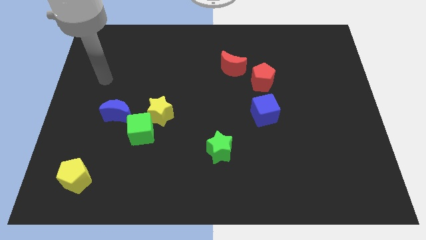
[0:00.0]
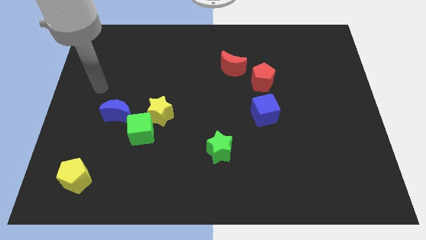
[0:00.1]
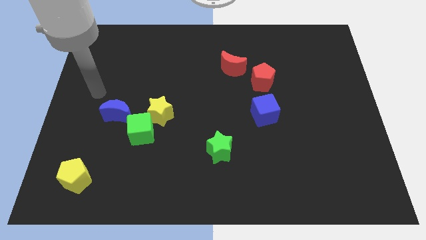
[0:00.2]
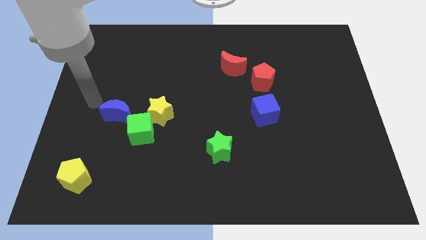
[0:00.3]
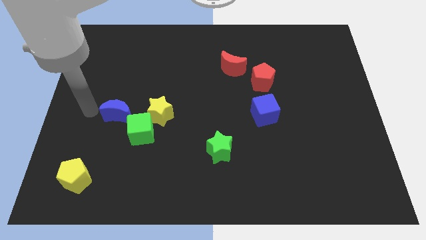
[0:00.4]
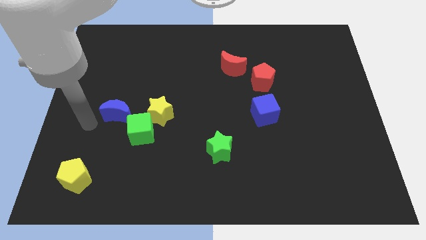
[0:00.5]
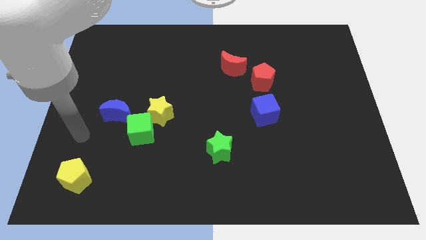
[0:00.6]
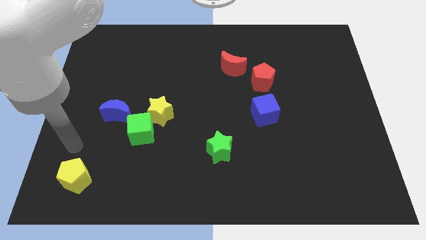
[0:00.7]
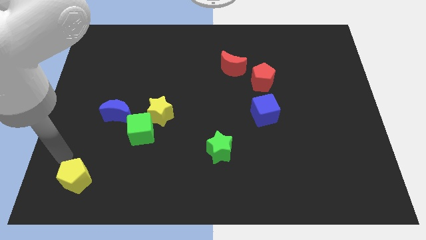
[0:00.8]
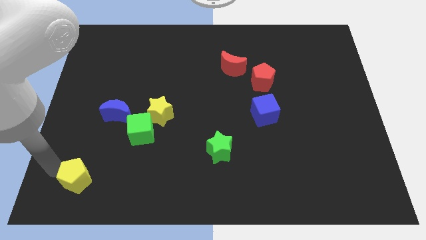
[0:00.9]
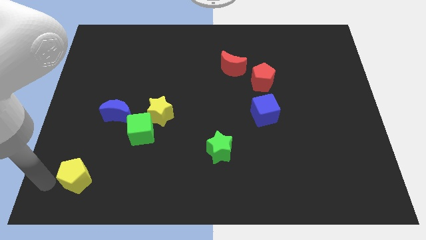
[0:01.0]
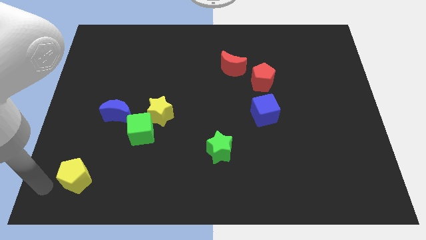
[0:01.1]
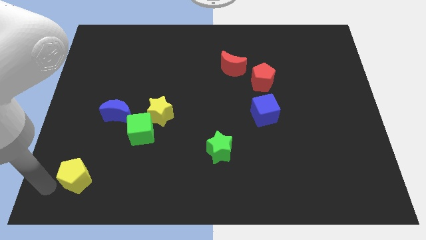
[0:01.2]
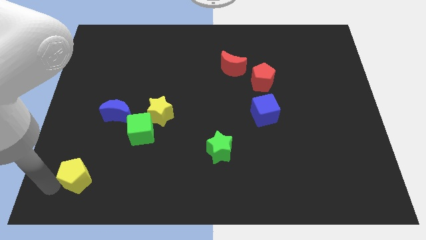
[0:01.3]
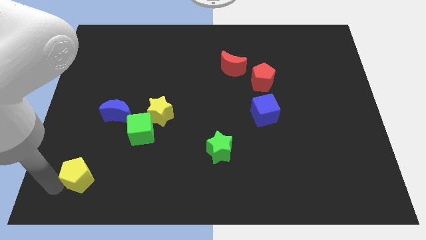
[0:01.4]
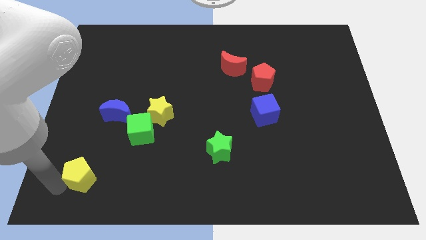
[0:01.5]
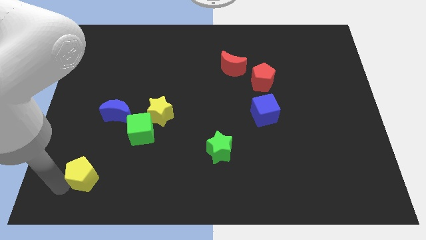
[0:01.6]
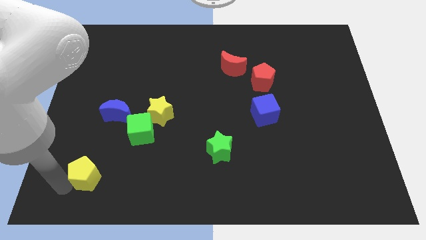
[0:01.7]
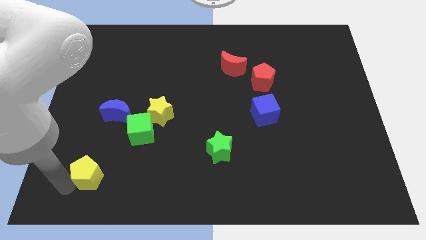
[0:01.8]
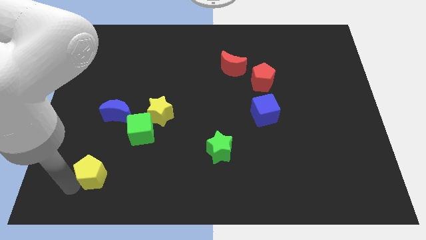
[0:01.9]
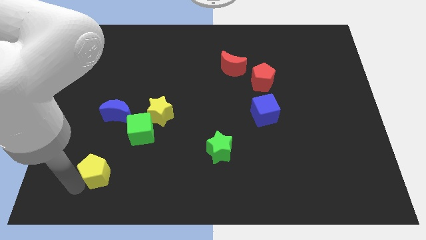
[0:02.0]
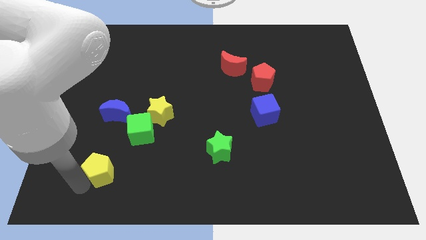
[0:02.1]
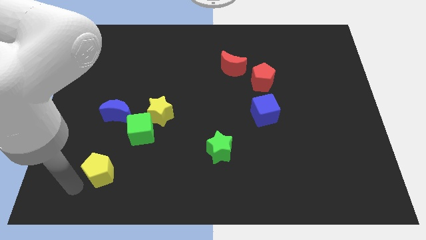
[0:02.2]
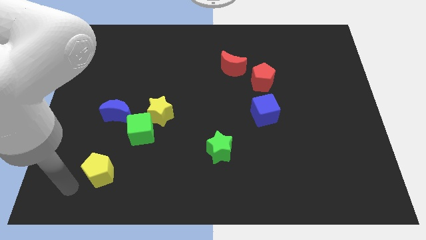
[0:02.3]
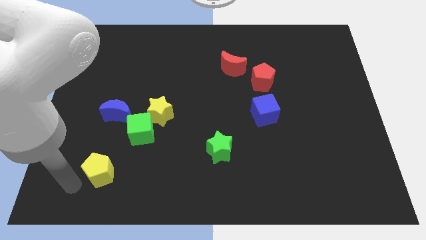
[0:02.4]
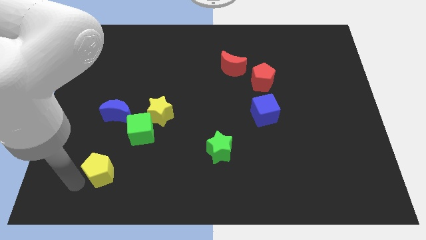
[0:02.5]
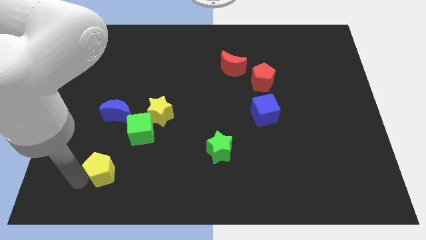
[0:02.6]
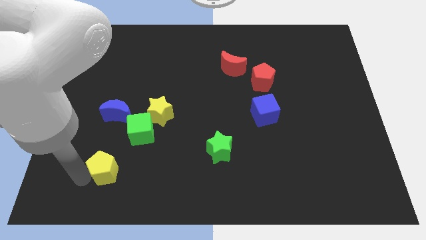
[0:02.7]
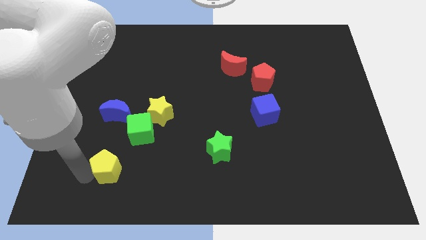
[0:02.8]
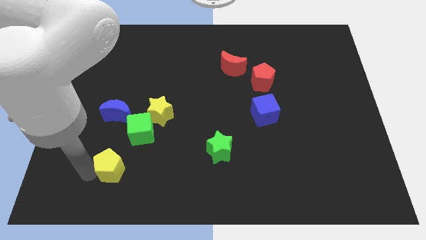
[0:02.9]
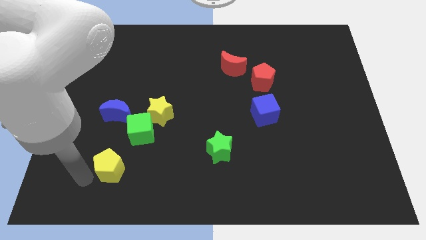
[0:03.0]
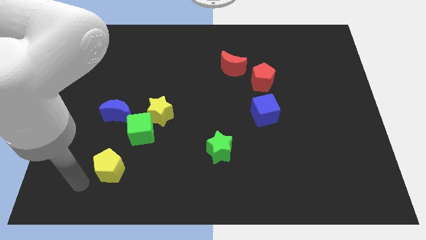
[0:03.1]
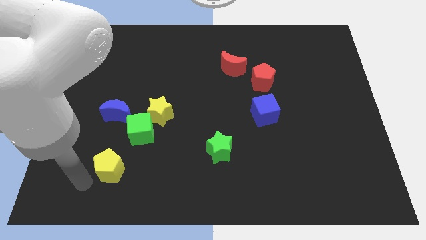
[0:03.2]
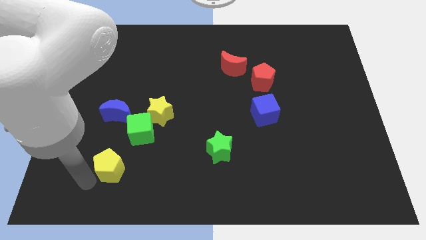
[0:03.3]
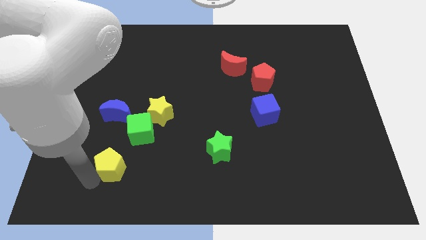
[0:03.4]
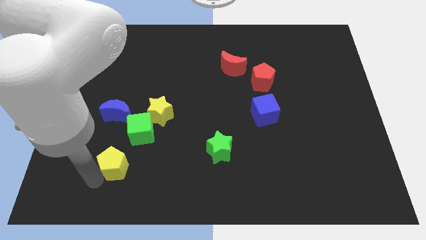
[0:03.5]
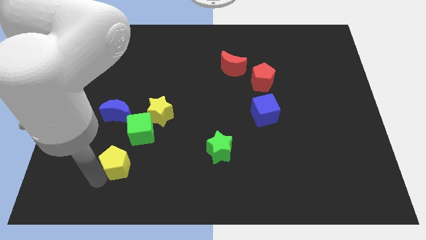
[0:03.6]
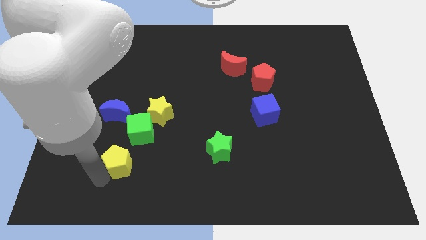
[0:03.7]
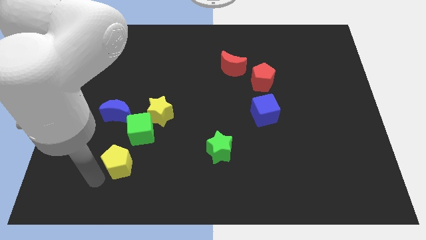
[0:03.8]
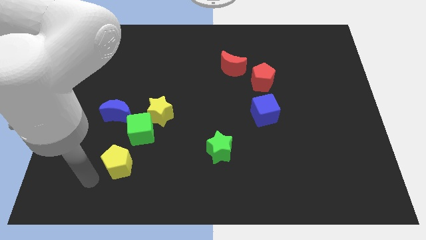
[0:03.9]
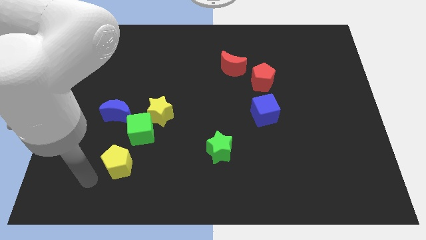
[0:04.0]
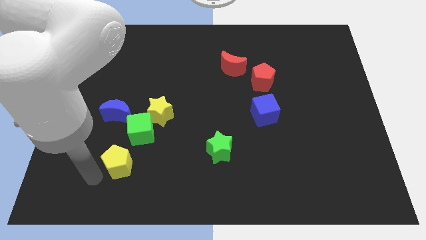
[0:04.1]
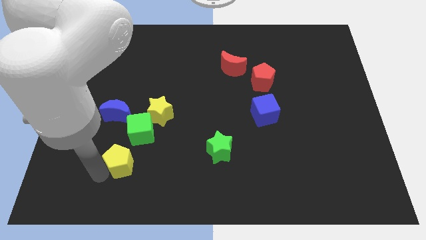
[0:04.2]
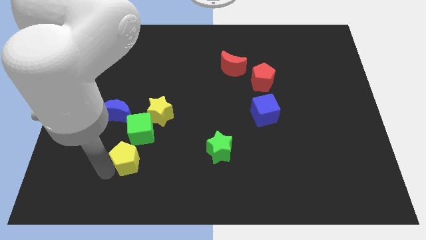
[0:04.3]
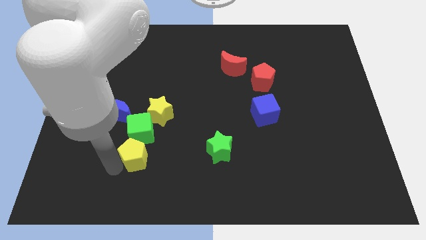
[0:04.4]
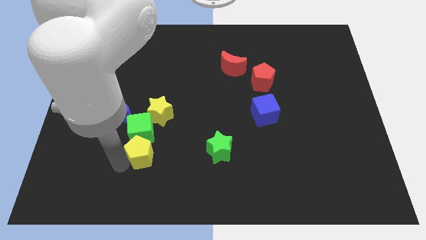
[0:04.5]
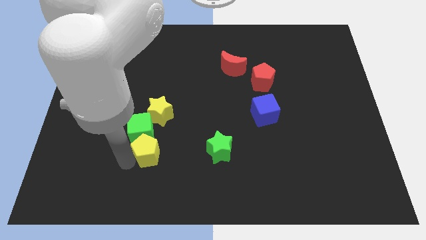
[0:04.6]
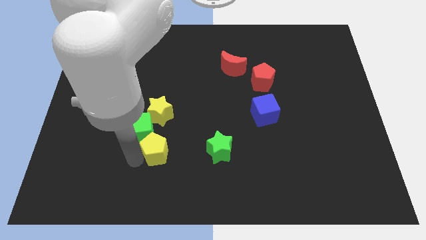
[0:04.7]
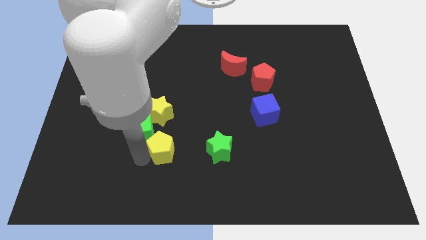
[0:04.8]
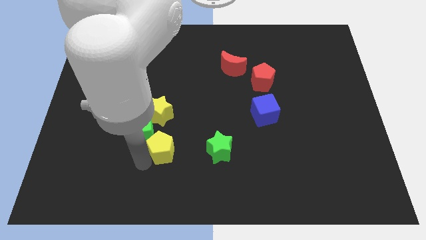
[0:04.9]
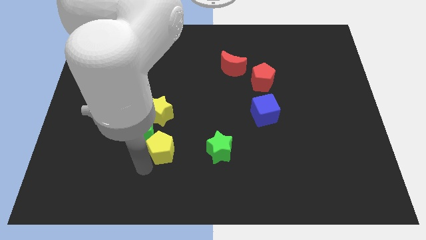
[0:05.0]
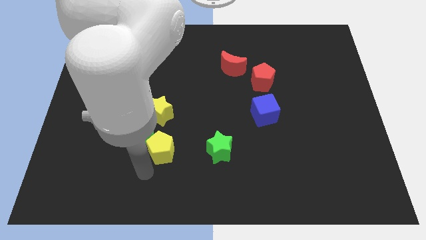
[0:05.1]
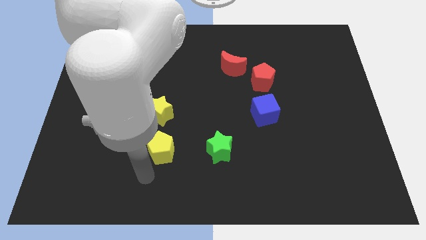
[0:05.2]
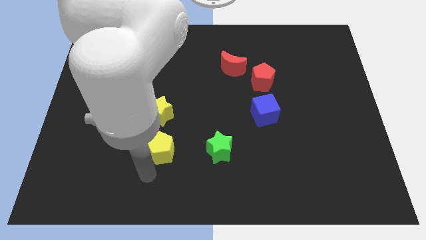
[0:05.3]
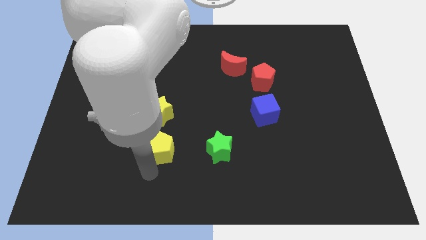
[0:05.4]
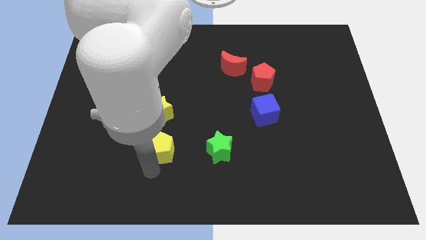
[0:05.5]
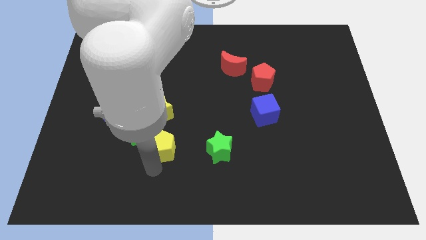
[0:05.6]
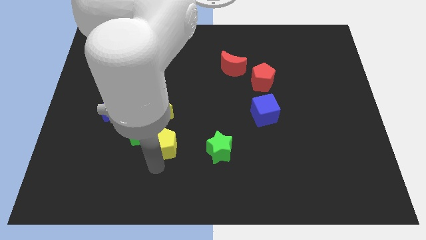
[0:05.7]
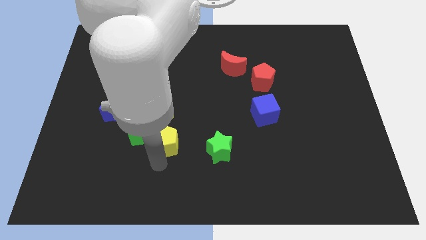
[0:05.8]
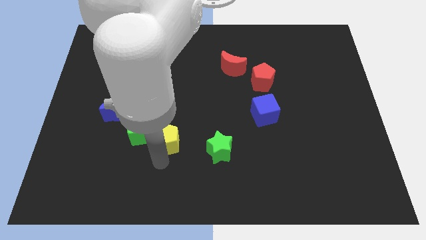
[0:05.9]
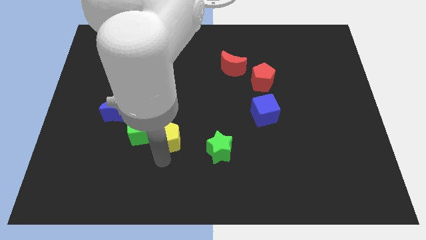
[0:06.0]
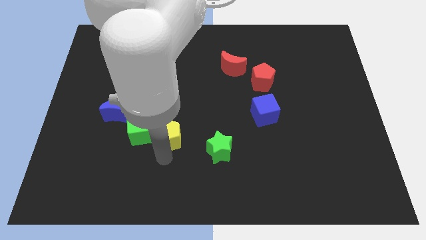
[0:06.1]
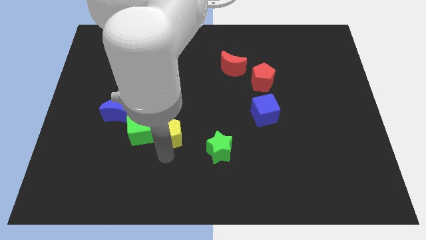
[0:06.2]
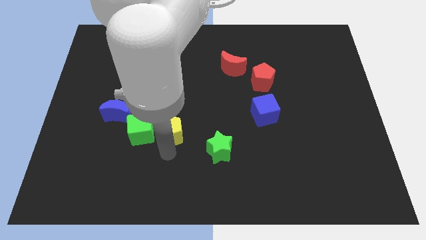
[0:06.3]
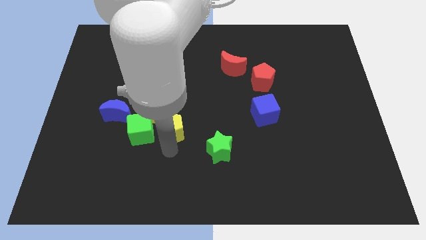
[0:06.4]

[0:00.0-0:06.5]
slide the yellow pentagon to the right side of the blue moon

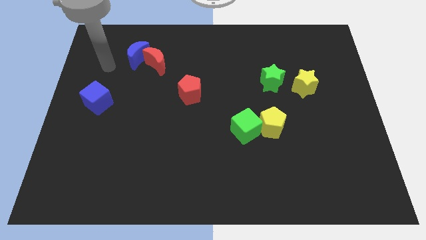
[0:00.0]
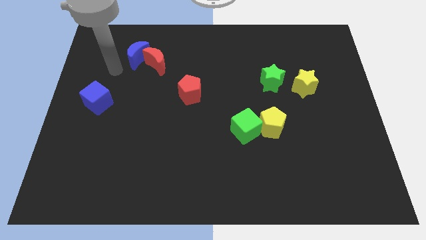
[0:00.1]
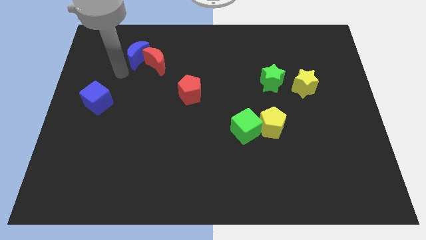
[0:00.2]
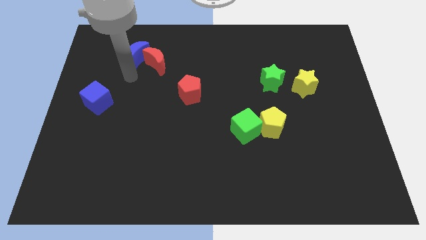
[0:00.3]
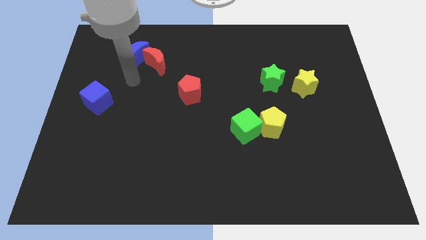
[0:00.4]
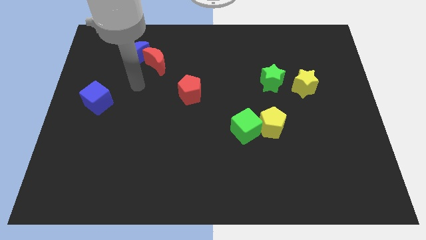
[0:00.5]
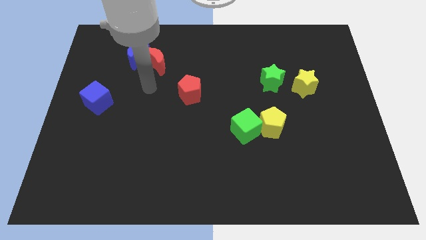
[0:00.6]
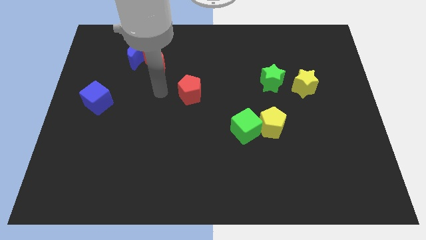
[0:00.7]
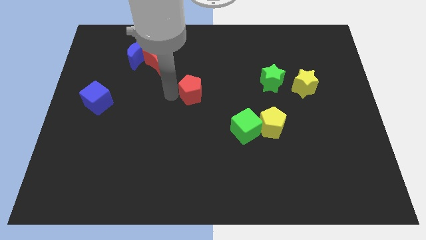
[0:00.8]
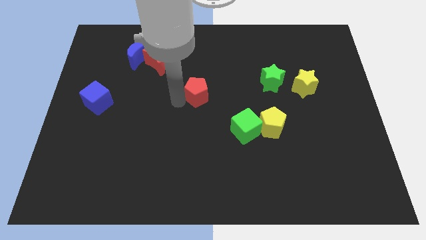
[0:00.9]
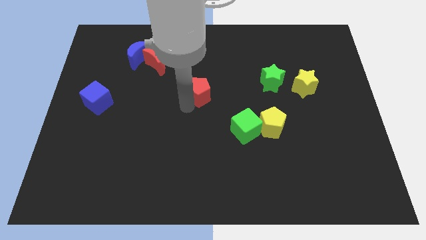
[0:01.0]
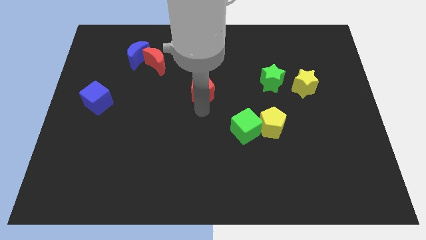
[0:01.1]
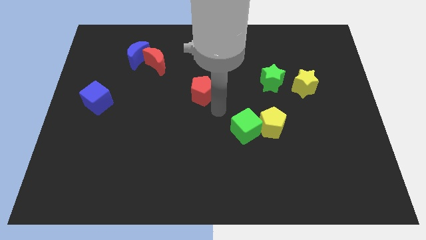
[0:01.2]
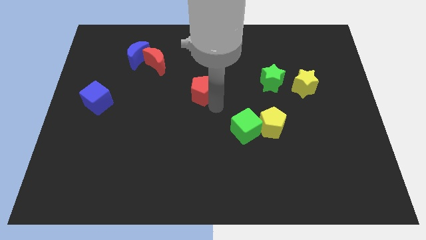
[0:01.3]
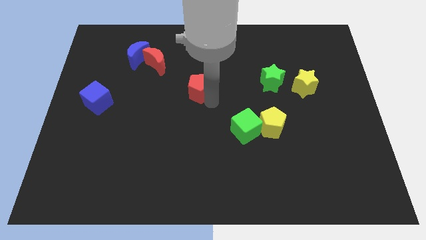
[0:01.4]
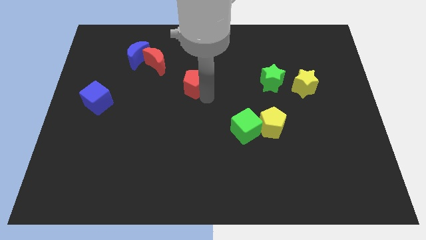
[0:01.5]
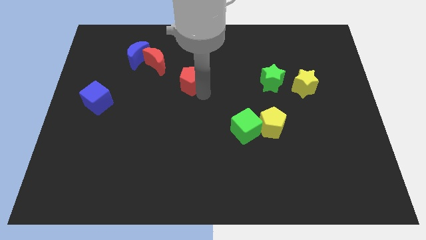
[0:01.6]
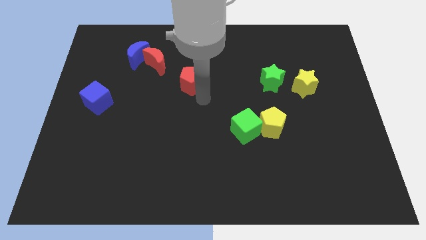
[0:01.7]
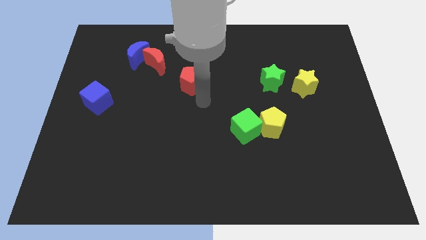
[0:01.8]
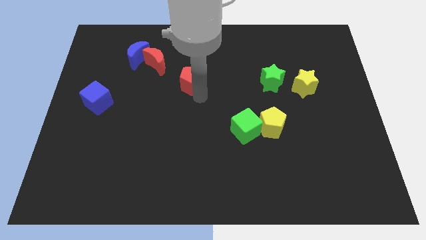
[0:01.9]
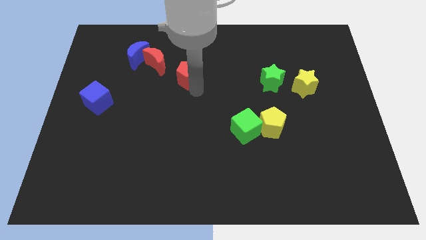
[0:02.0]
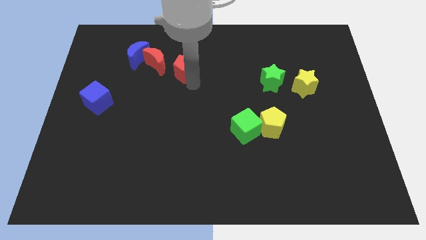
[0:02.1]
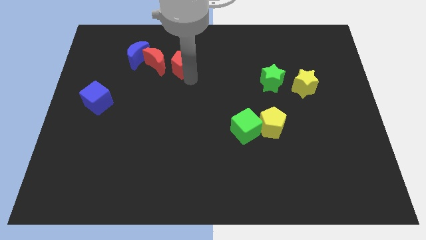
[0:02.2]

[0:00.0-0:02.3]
push the red pentagon right of the blue moon
